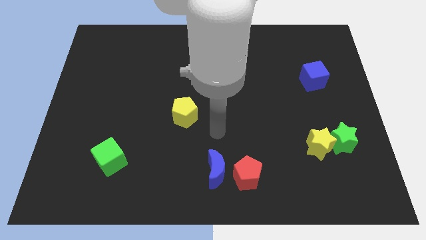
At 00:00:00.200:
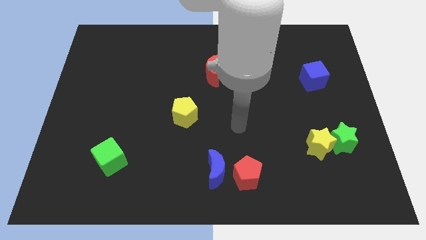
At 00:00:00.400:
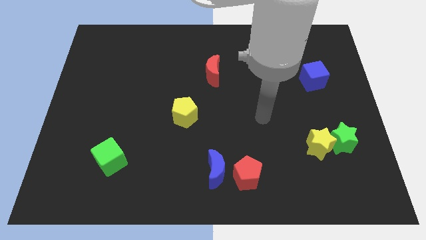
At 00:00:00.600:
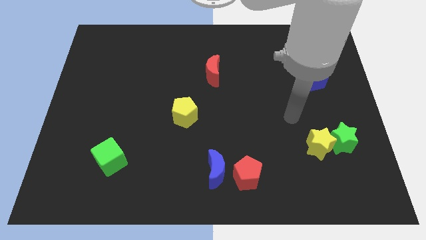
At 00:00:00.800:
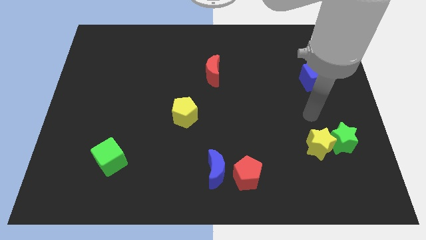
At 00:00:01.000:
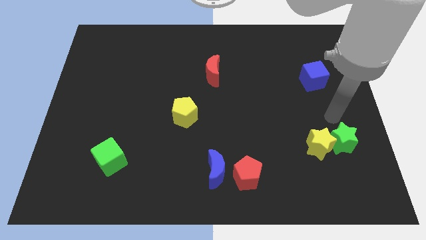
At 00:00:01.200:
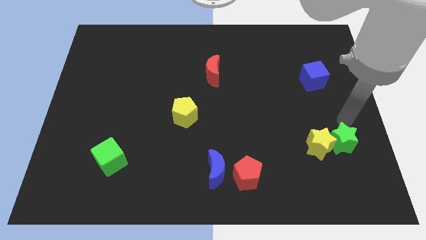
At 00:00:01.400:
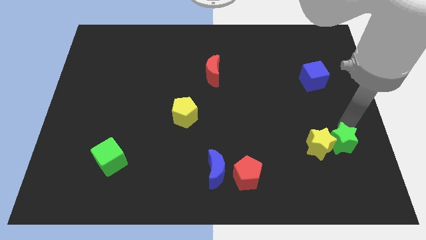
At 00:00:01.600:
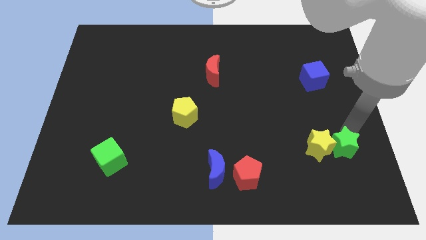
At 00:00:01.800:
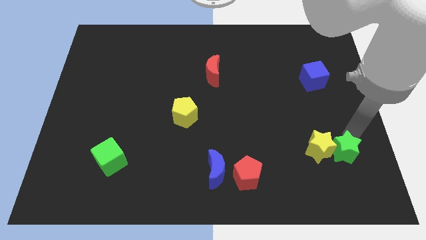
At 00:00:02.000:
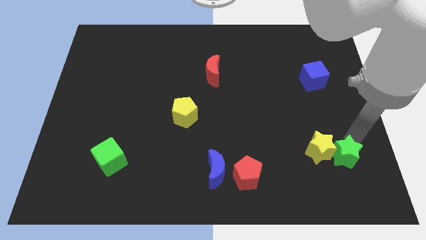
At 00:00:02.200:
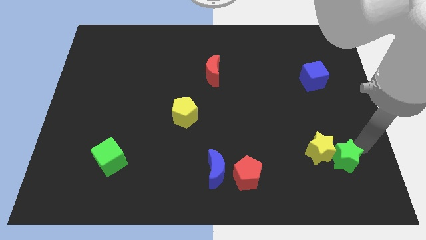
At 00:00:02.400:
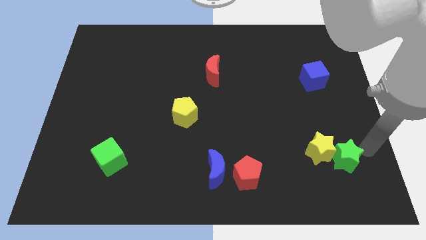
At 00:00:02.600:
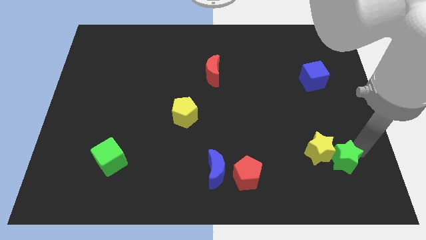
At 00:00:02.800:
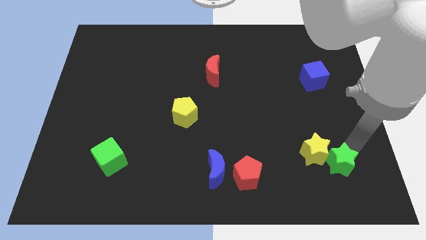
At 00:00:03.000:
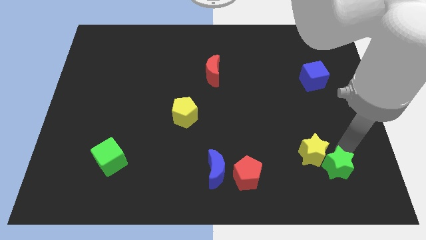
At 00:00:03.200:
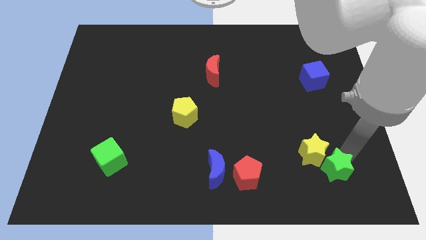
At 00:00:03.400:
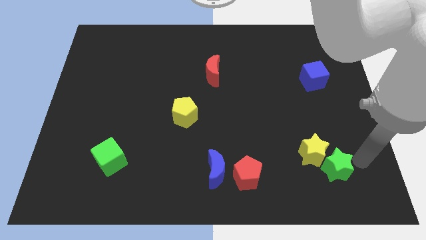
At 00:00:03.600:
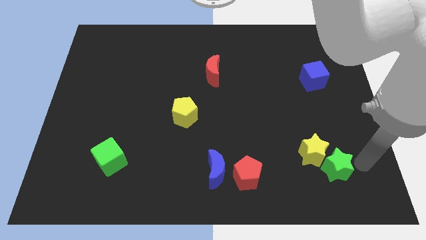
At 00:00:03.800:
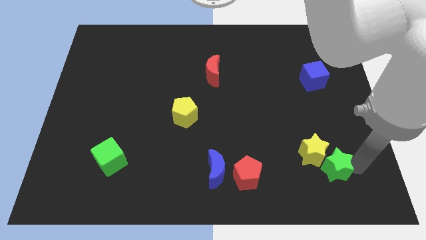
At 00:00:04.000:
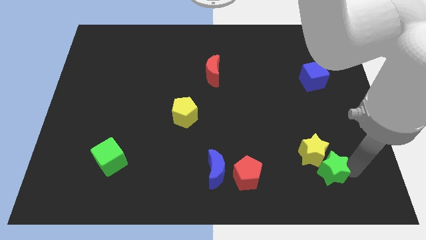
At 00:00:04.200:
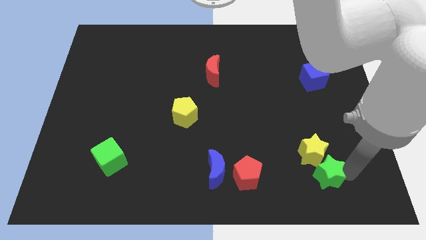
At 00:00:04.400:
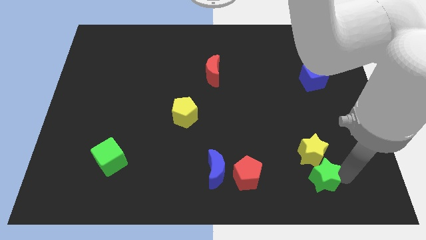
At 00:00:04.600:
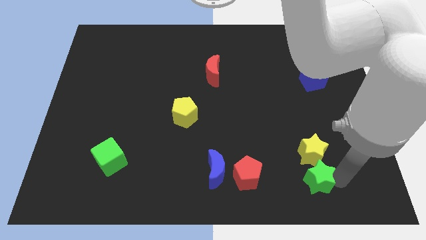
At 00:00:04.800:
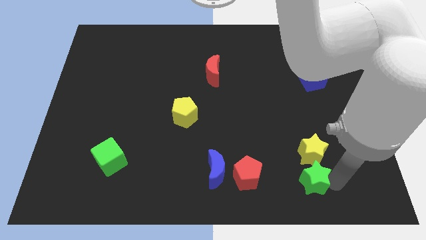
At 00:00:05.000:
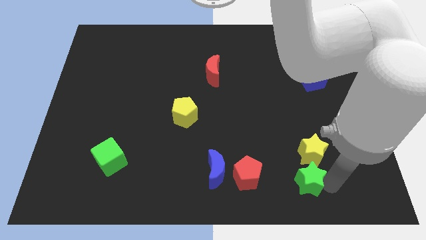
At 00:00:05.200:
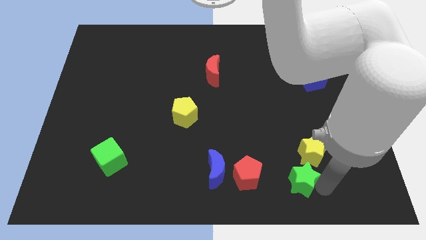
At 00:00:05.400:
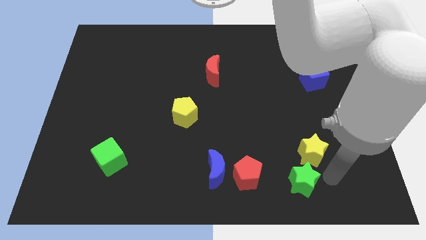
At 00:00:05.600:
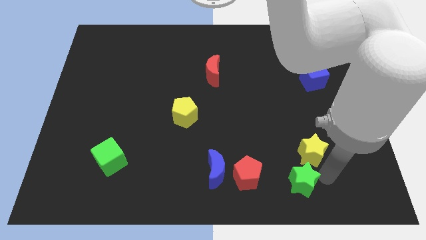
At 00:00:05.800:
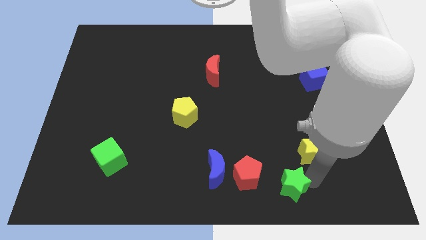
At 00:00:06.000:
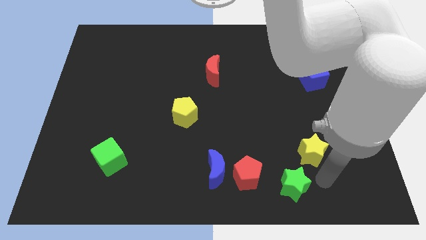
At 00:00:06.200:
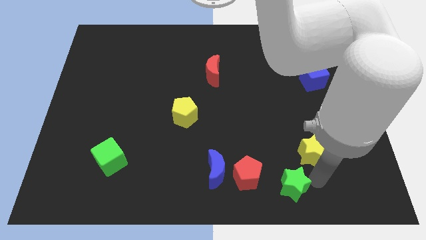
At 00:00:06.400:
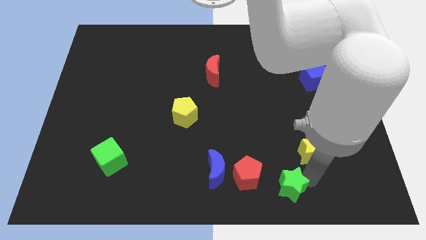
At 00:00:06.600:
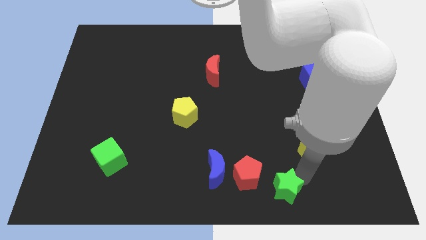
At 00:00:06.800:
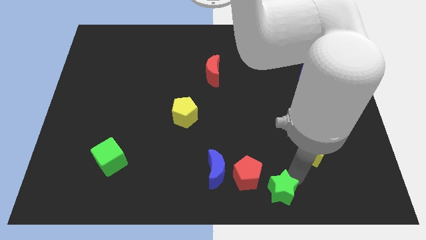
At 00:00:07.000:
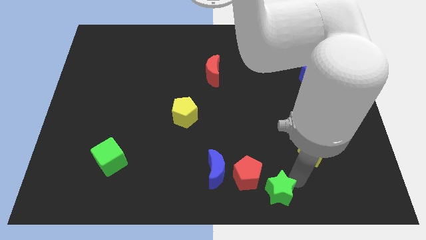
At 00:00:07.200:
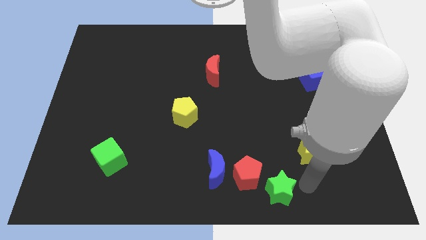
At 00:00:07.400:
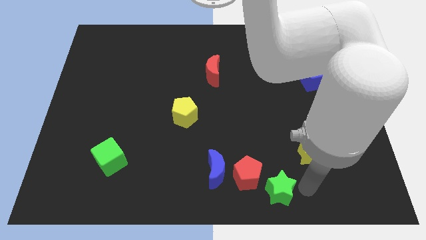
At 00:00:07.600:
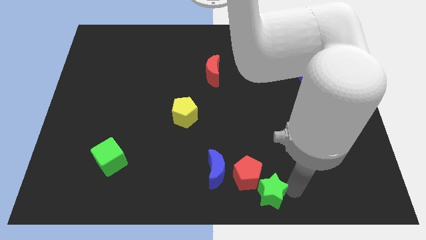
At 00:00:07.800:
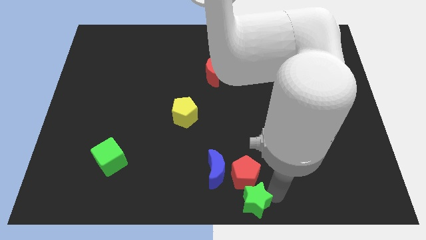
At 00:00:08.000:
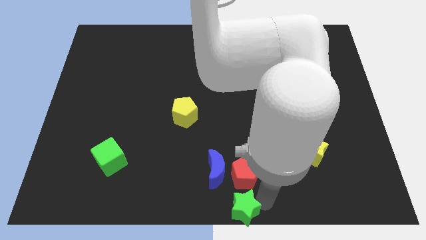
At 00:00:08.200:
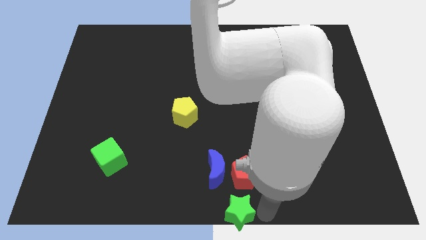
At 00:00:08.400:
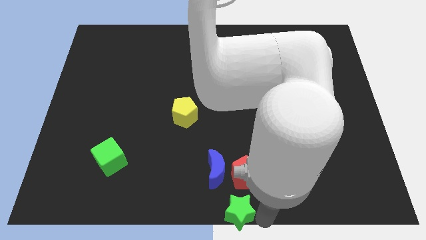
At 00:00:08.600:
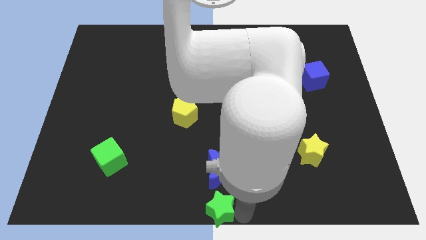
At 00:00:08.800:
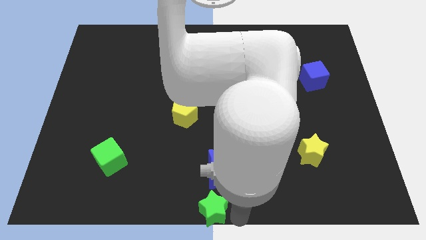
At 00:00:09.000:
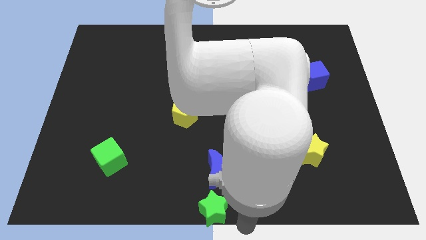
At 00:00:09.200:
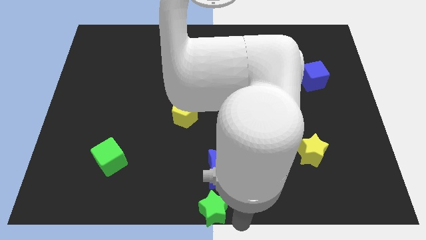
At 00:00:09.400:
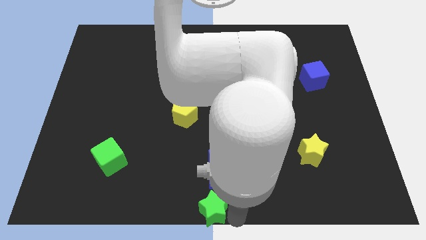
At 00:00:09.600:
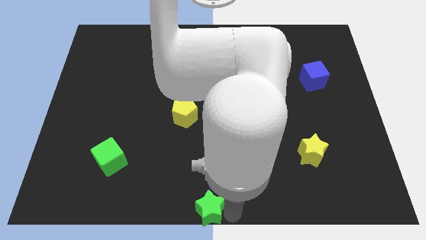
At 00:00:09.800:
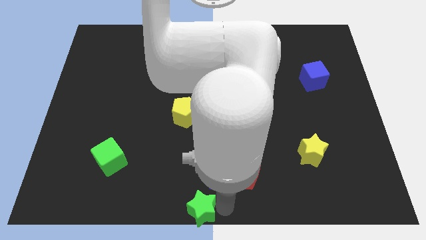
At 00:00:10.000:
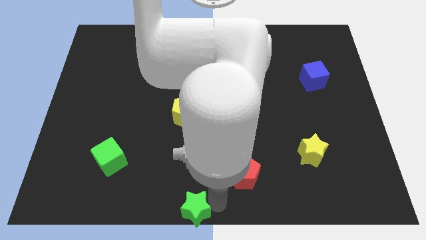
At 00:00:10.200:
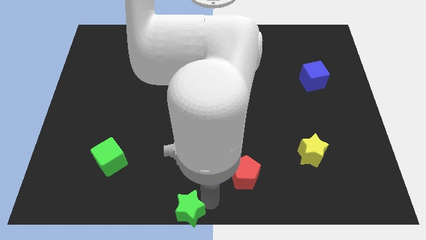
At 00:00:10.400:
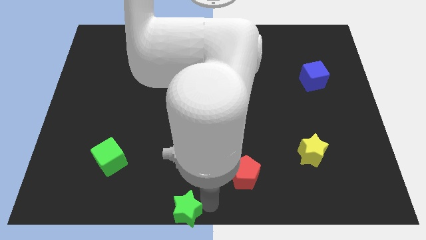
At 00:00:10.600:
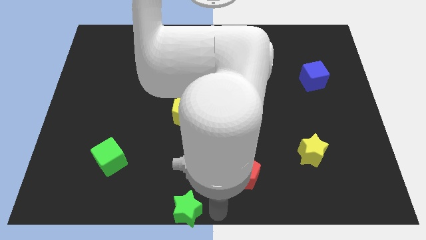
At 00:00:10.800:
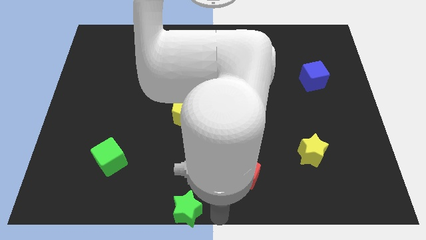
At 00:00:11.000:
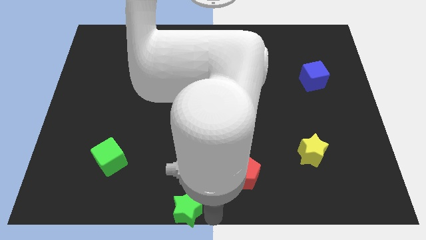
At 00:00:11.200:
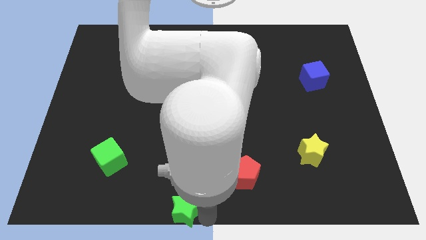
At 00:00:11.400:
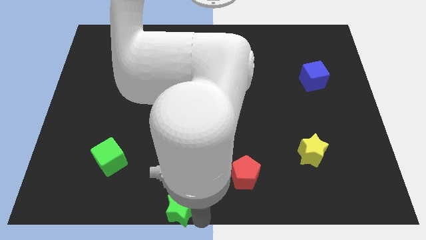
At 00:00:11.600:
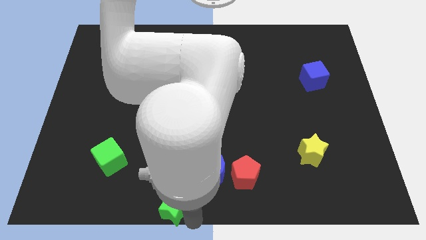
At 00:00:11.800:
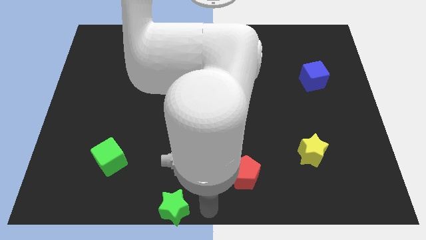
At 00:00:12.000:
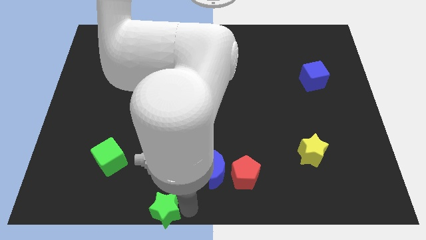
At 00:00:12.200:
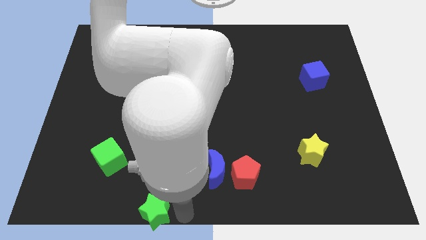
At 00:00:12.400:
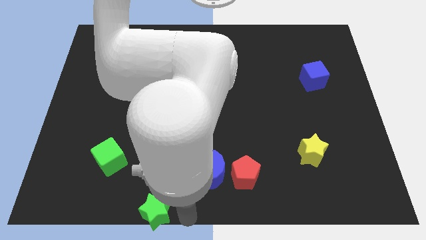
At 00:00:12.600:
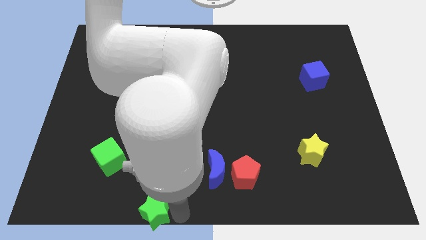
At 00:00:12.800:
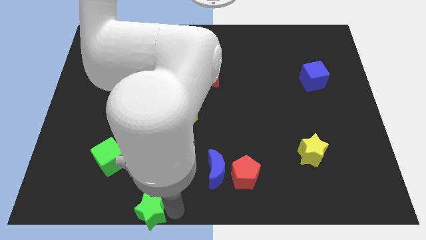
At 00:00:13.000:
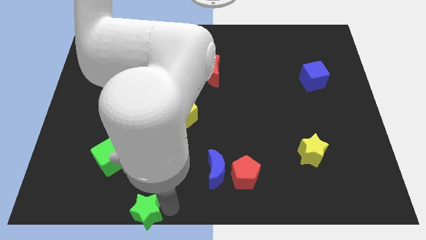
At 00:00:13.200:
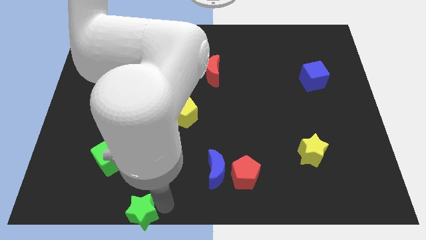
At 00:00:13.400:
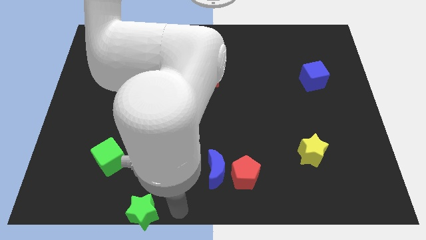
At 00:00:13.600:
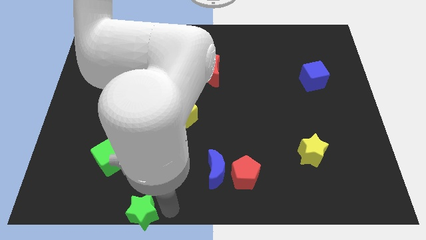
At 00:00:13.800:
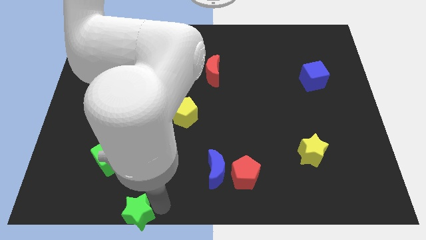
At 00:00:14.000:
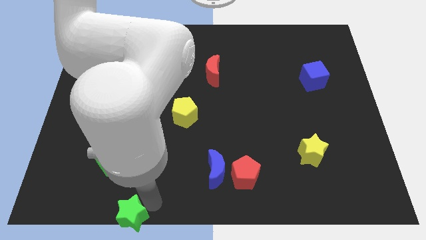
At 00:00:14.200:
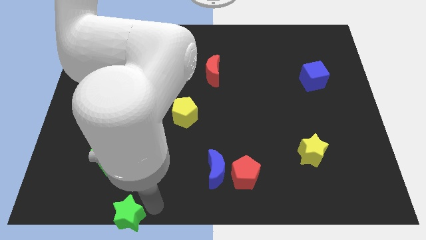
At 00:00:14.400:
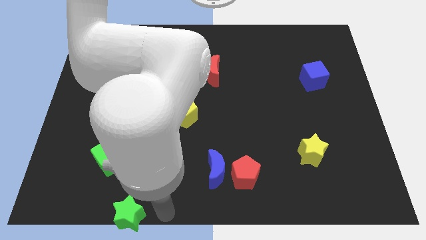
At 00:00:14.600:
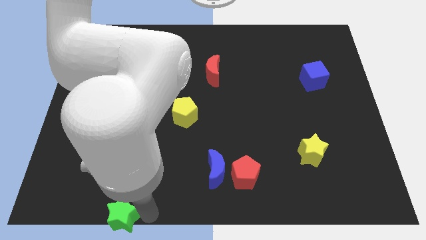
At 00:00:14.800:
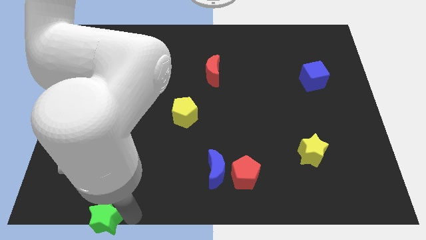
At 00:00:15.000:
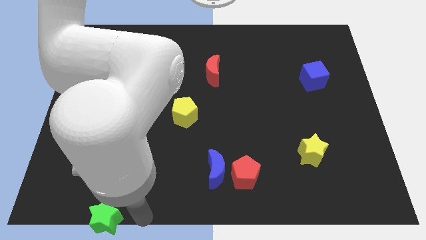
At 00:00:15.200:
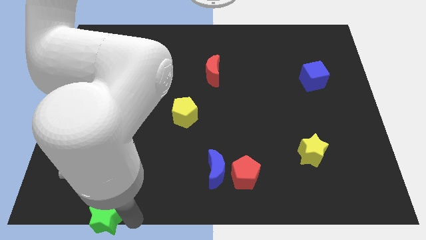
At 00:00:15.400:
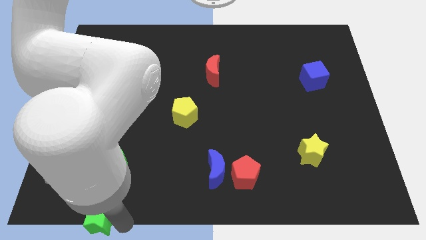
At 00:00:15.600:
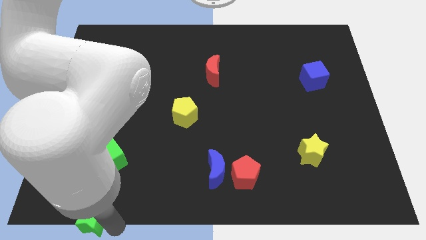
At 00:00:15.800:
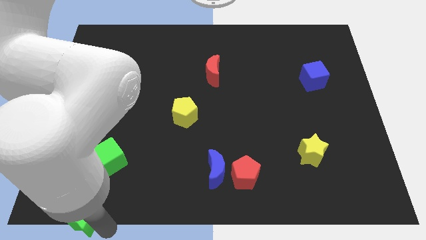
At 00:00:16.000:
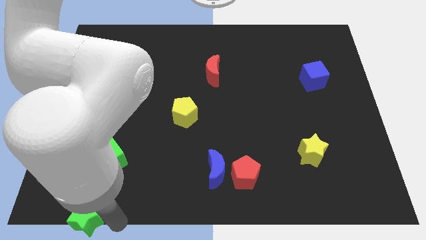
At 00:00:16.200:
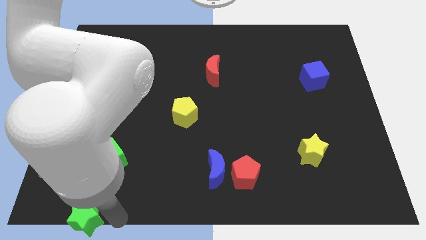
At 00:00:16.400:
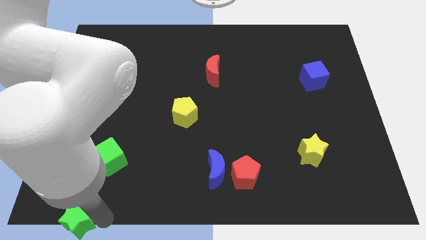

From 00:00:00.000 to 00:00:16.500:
put the green star to the bottom left of the board
